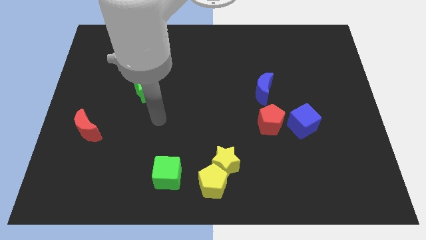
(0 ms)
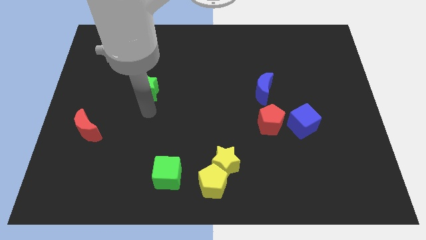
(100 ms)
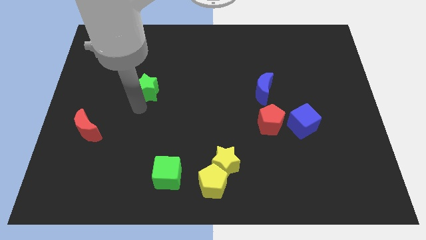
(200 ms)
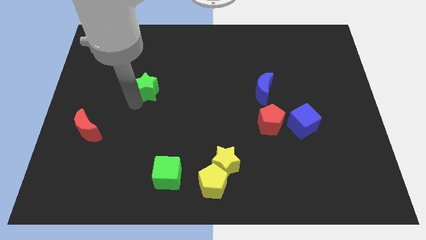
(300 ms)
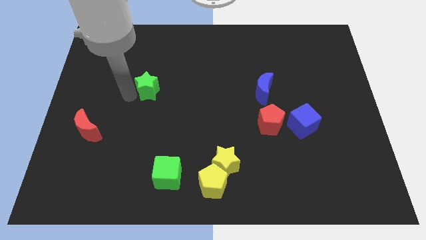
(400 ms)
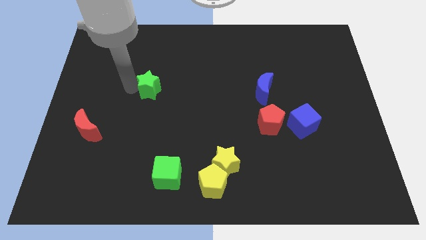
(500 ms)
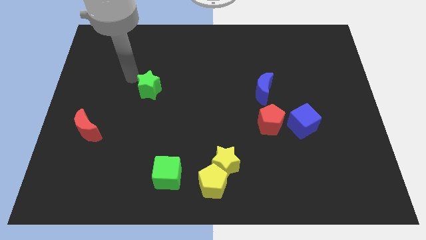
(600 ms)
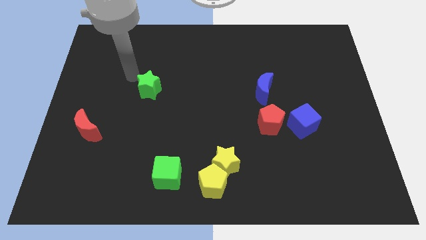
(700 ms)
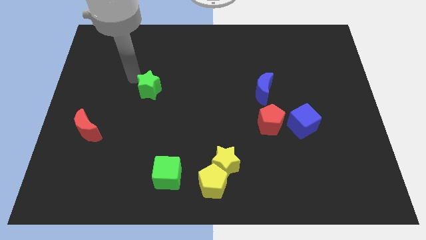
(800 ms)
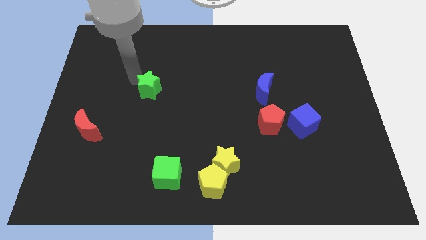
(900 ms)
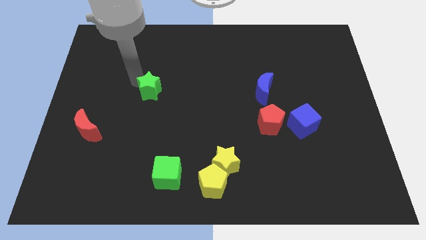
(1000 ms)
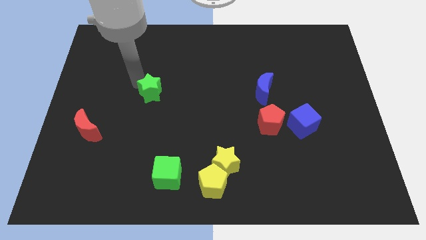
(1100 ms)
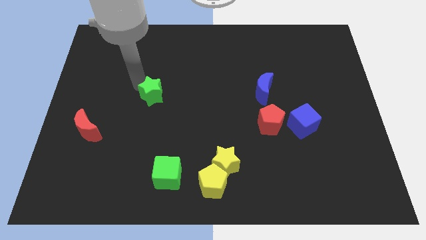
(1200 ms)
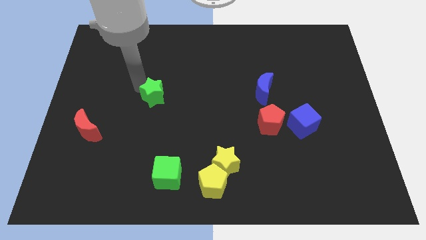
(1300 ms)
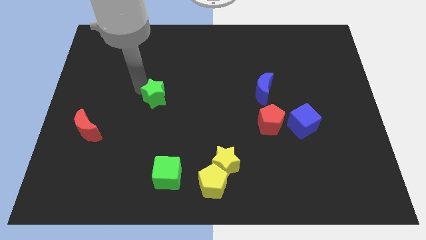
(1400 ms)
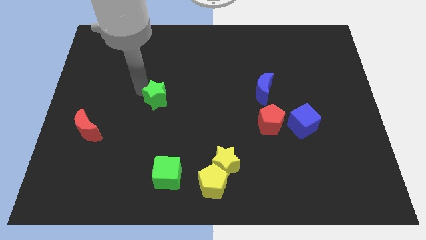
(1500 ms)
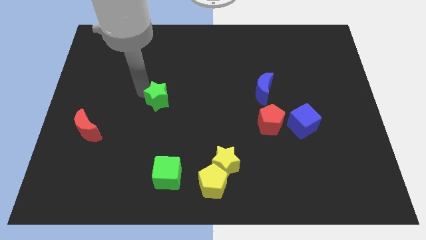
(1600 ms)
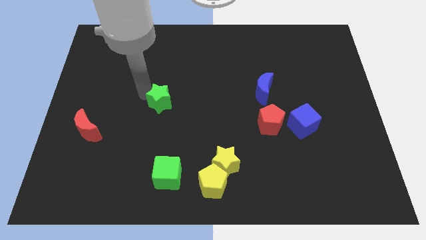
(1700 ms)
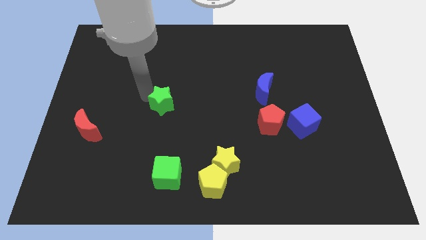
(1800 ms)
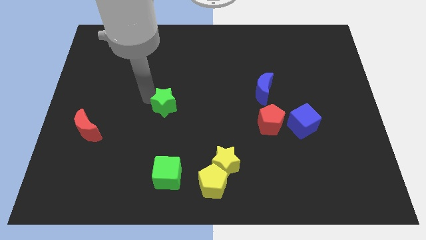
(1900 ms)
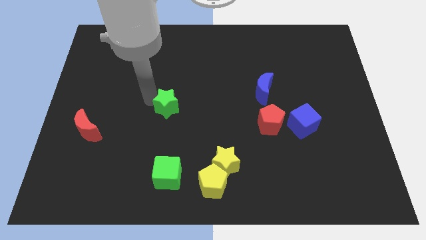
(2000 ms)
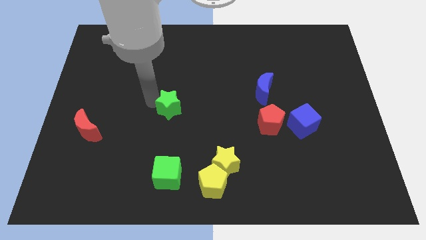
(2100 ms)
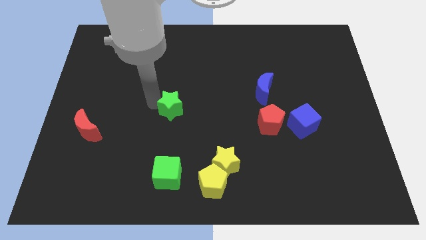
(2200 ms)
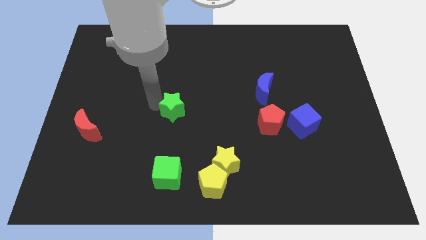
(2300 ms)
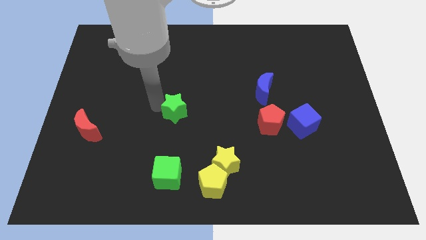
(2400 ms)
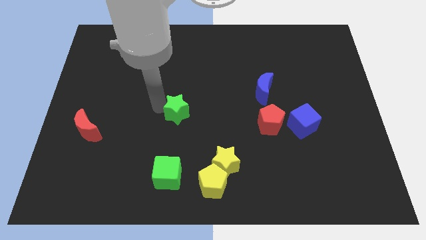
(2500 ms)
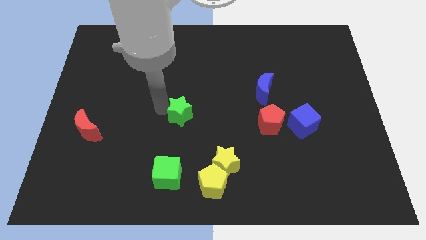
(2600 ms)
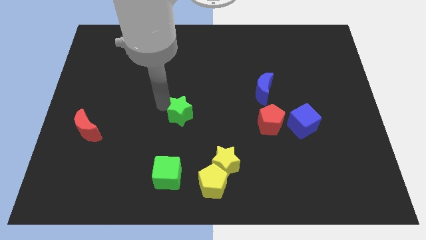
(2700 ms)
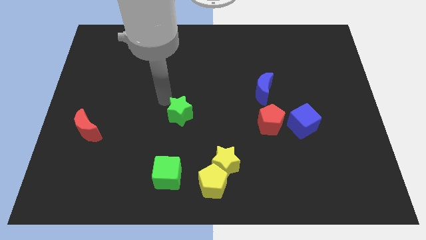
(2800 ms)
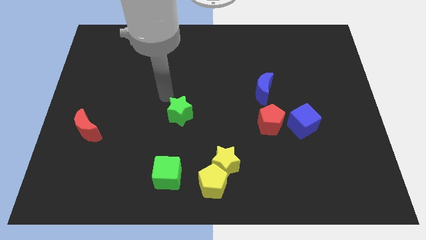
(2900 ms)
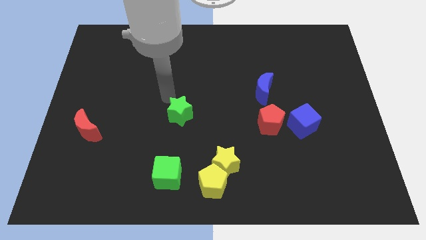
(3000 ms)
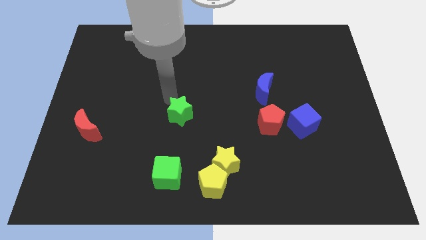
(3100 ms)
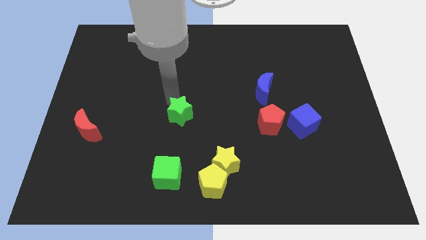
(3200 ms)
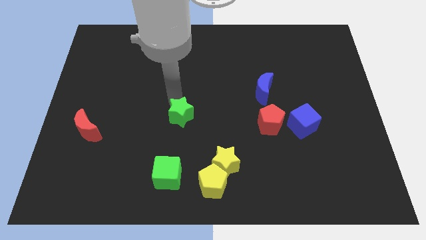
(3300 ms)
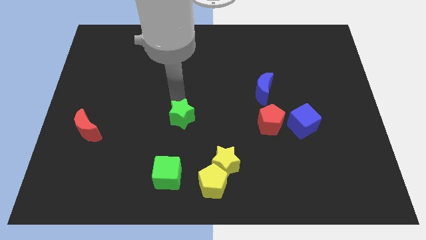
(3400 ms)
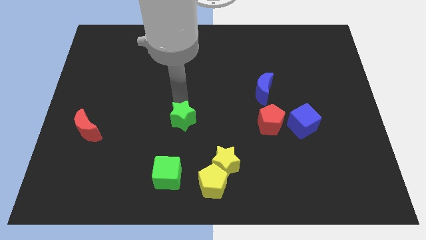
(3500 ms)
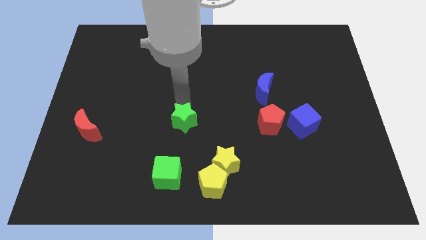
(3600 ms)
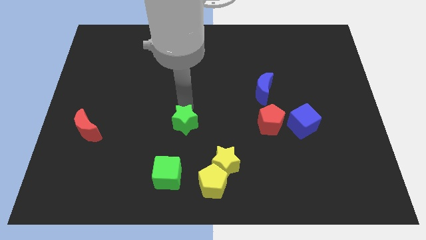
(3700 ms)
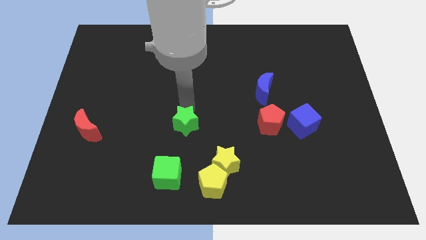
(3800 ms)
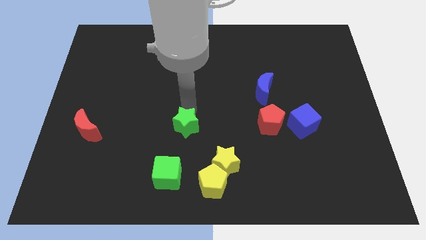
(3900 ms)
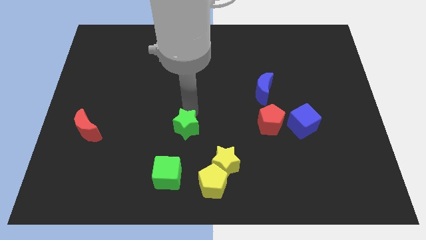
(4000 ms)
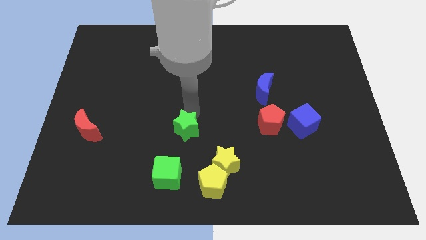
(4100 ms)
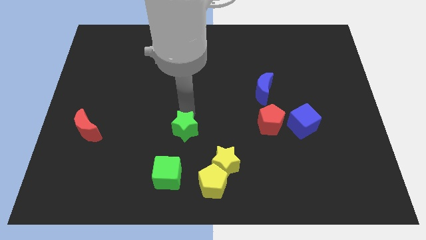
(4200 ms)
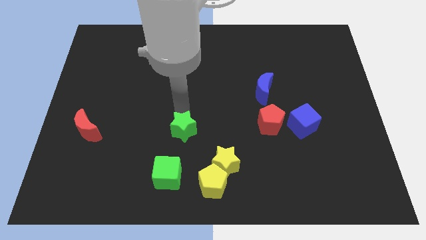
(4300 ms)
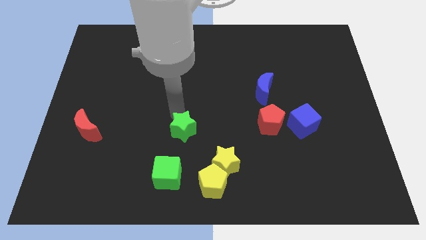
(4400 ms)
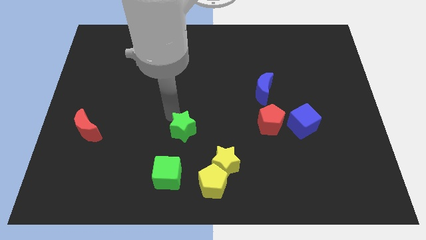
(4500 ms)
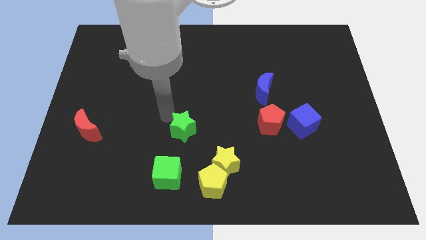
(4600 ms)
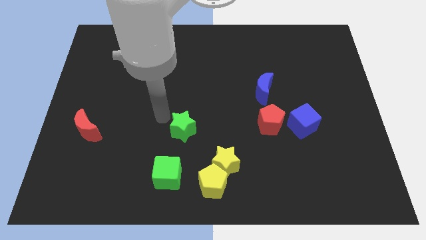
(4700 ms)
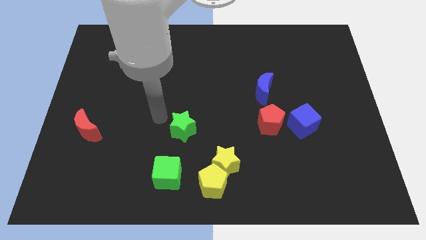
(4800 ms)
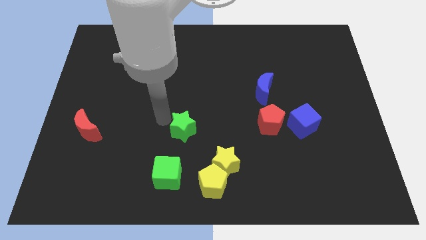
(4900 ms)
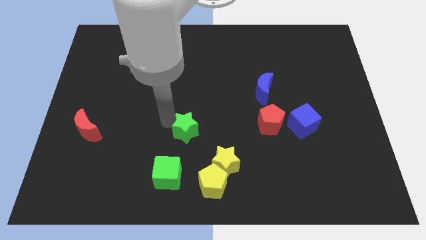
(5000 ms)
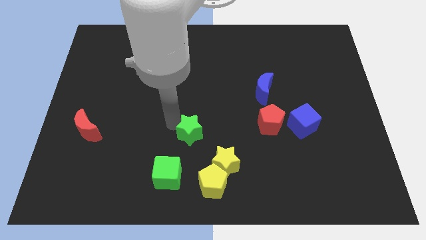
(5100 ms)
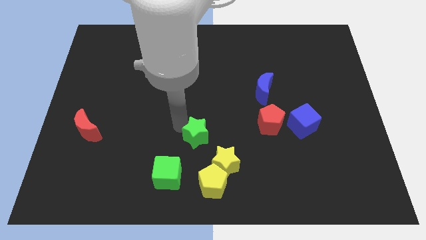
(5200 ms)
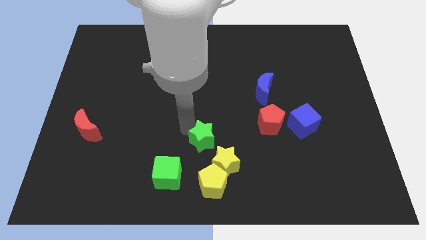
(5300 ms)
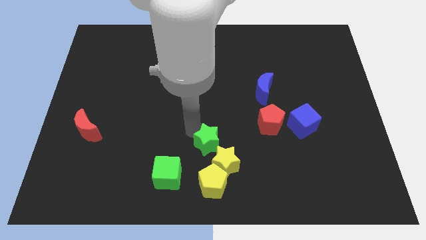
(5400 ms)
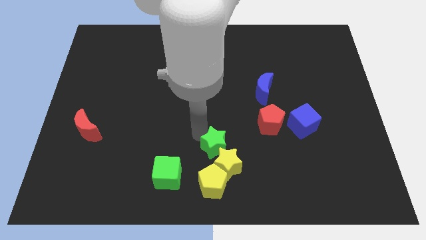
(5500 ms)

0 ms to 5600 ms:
push the green star close to the yellow star

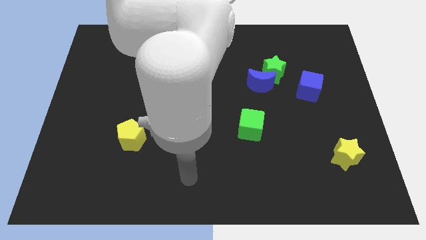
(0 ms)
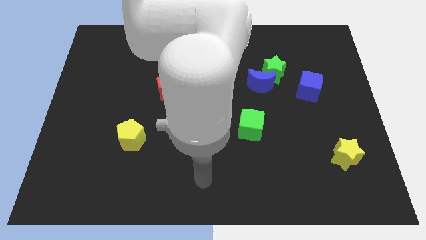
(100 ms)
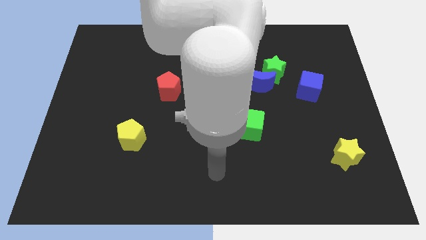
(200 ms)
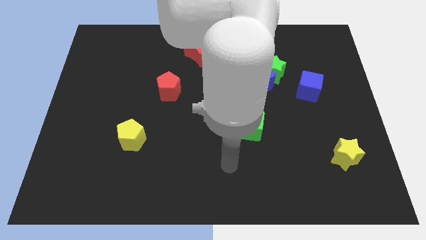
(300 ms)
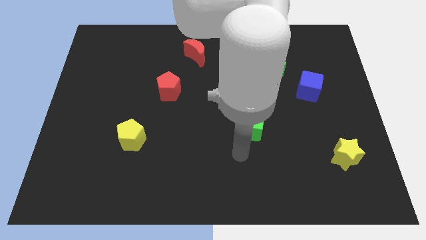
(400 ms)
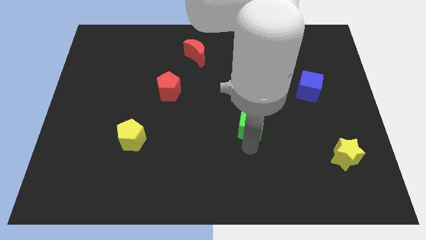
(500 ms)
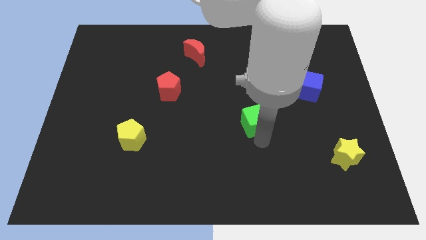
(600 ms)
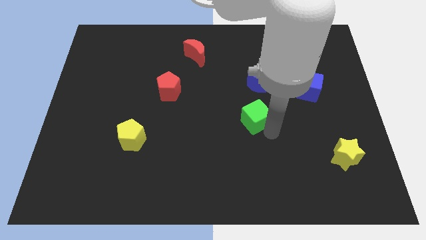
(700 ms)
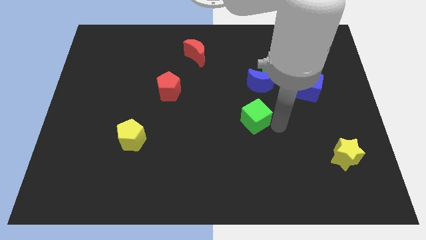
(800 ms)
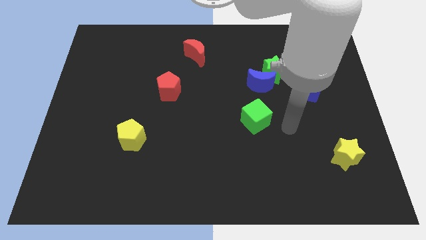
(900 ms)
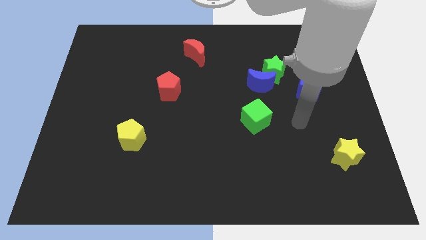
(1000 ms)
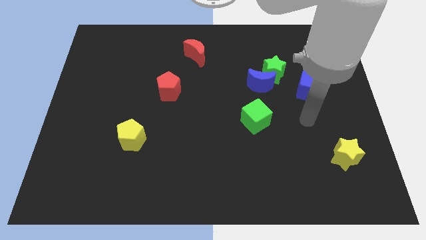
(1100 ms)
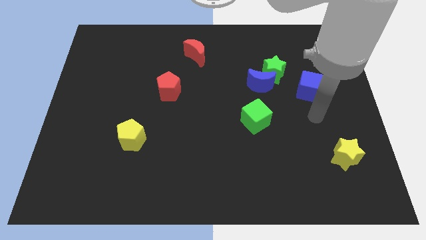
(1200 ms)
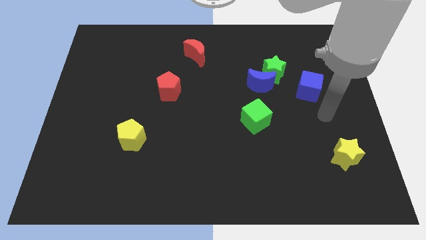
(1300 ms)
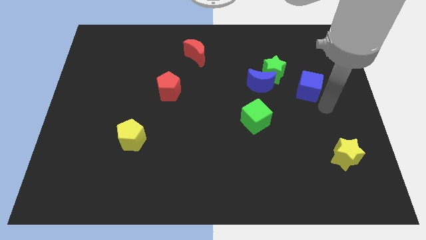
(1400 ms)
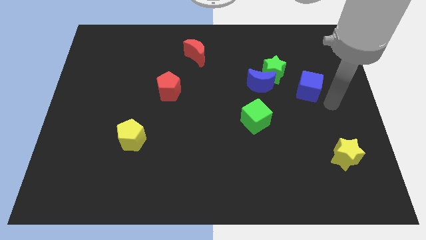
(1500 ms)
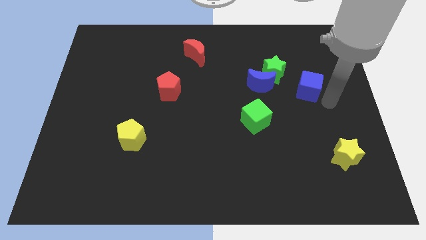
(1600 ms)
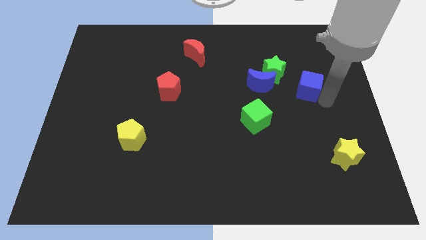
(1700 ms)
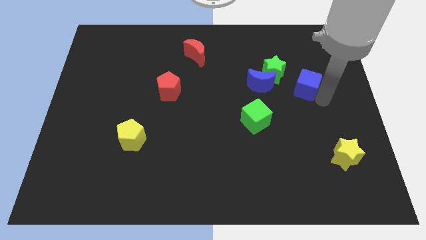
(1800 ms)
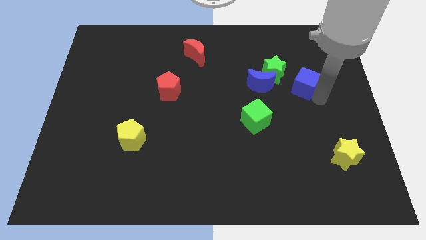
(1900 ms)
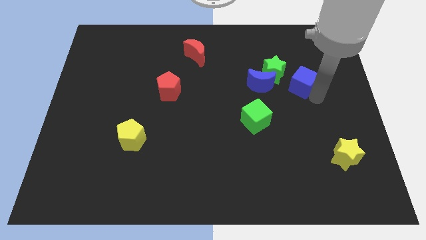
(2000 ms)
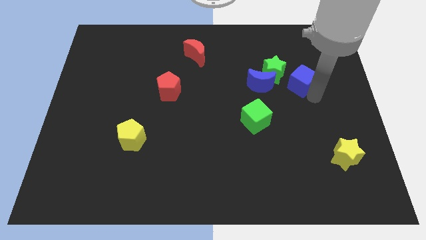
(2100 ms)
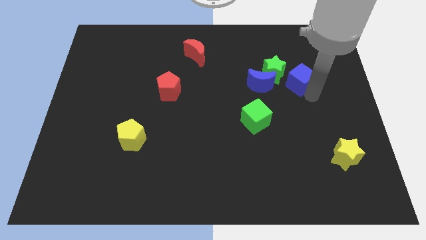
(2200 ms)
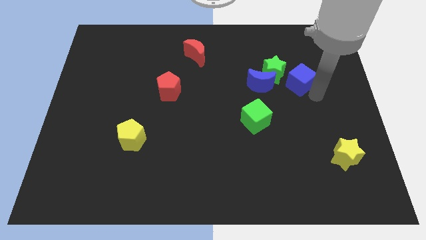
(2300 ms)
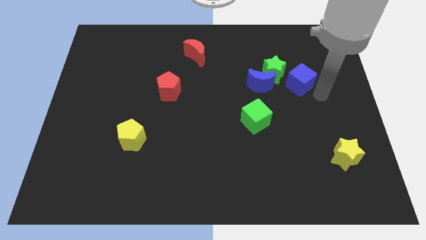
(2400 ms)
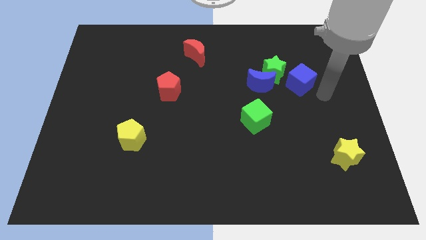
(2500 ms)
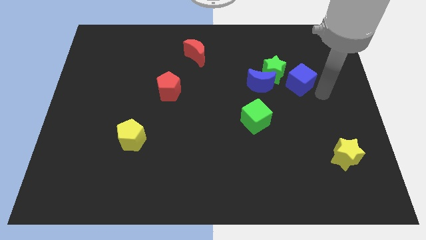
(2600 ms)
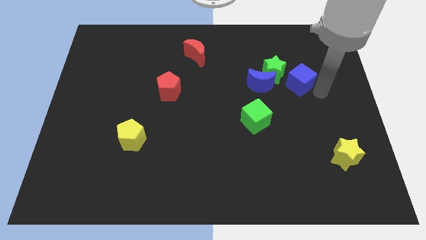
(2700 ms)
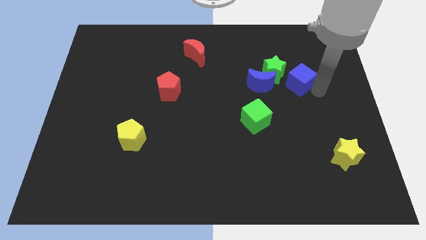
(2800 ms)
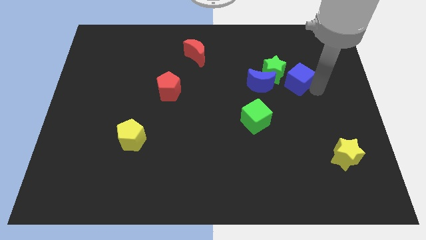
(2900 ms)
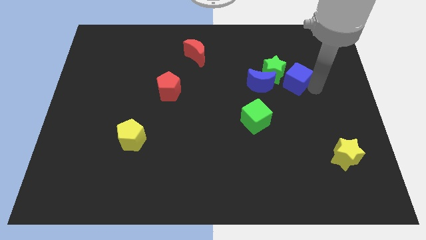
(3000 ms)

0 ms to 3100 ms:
put the blue cube towards the green star
